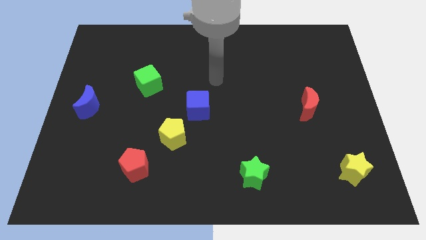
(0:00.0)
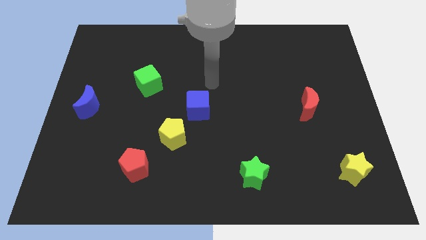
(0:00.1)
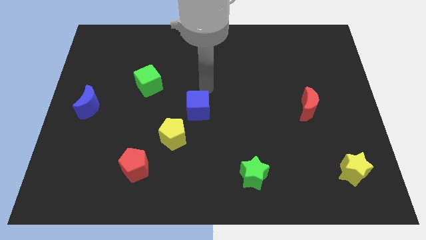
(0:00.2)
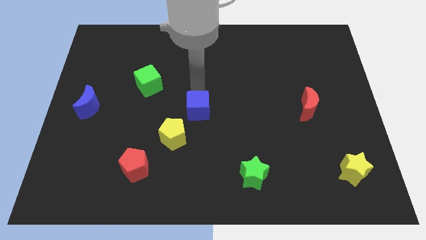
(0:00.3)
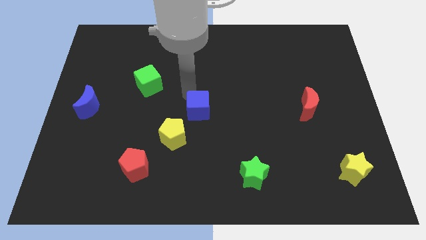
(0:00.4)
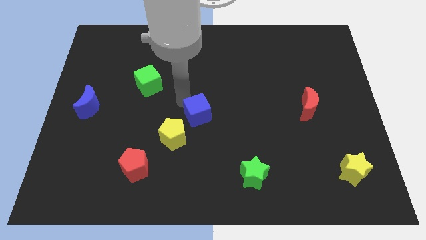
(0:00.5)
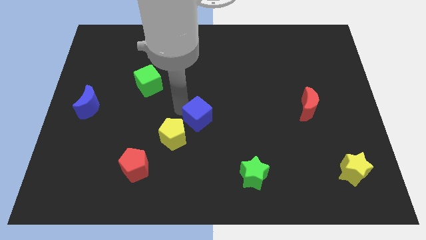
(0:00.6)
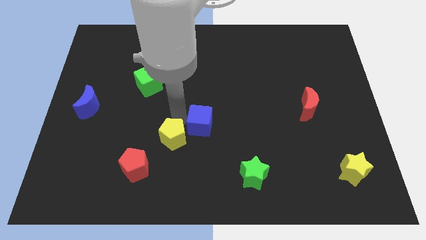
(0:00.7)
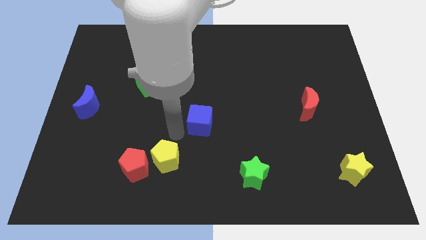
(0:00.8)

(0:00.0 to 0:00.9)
move the blue cube away from the yellow pentagon

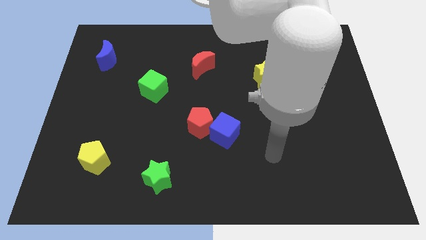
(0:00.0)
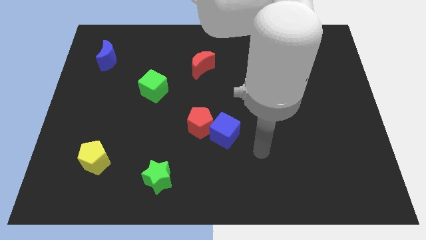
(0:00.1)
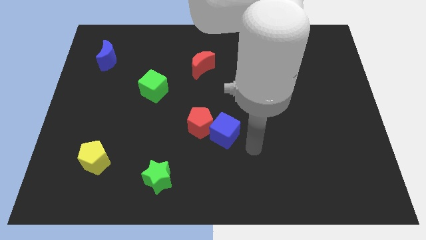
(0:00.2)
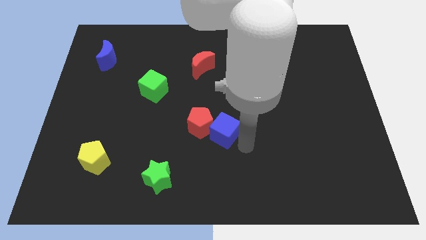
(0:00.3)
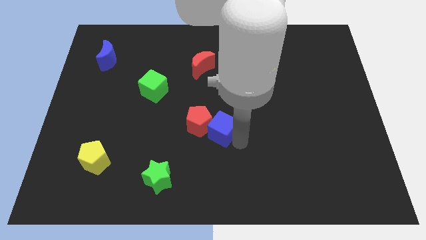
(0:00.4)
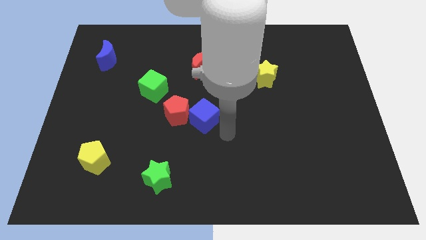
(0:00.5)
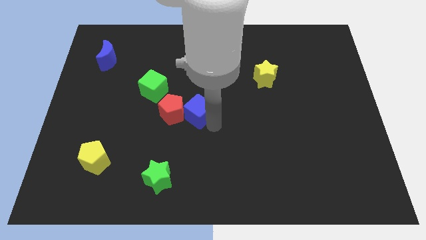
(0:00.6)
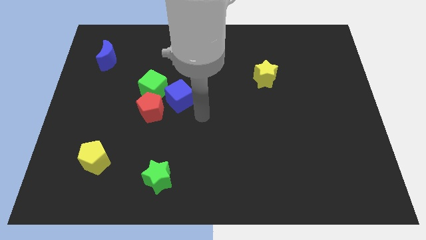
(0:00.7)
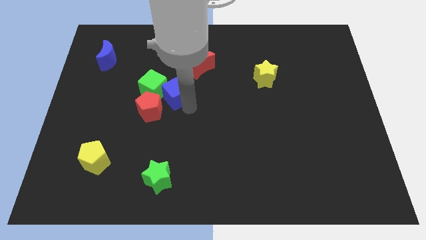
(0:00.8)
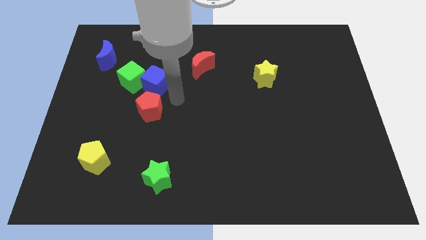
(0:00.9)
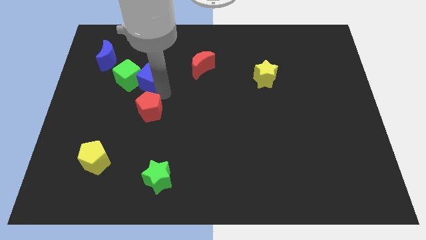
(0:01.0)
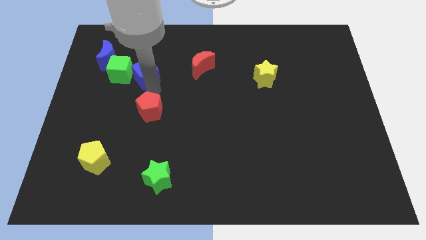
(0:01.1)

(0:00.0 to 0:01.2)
separate the red pentagon from the blue cube

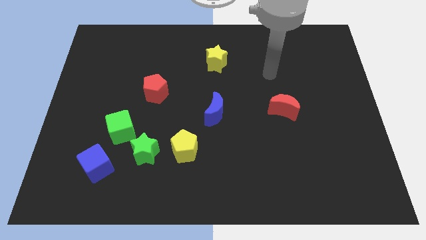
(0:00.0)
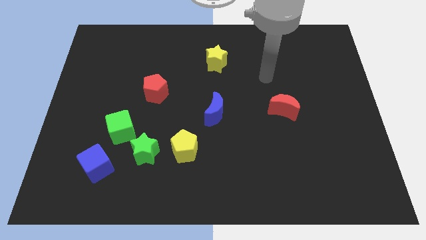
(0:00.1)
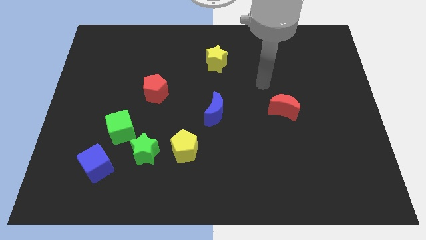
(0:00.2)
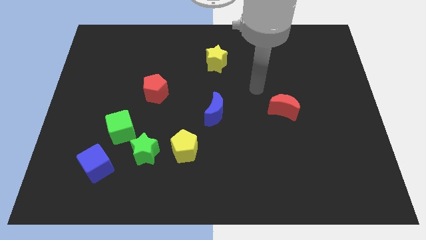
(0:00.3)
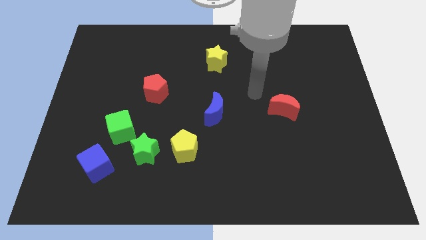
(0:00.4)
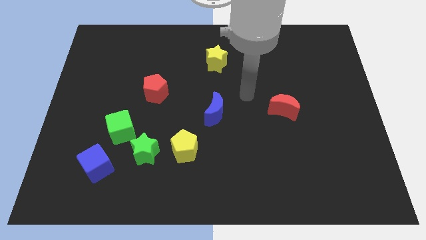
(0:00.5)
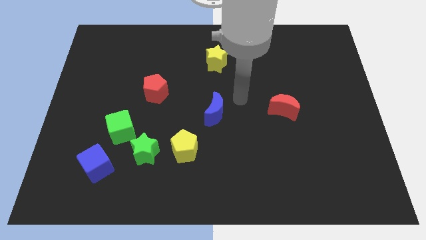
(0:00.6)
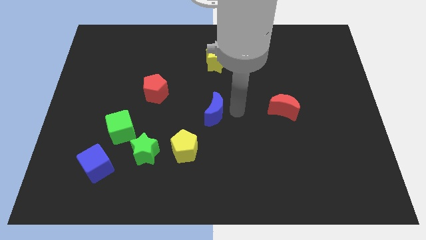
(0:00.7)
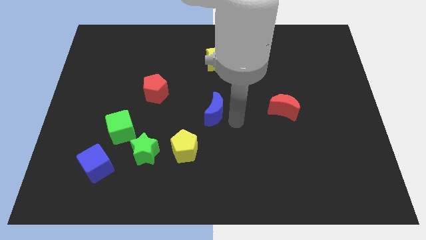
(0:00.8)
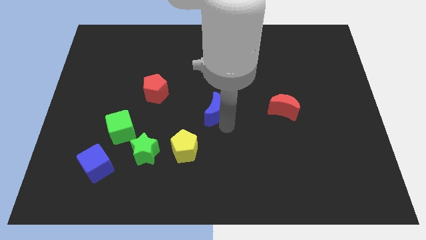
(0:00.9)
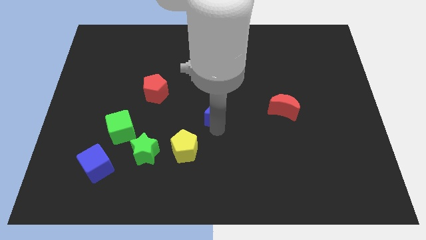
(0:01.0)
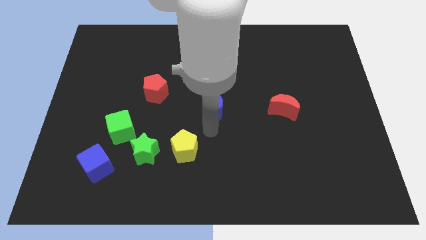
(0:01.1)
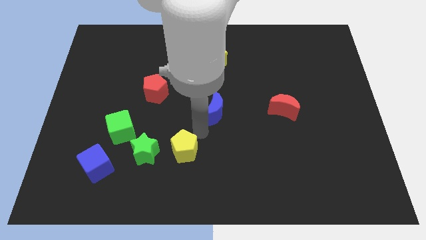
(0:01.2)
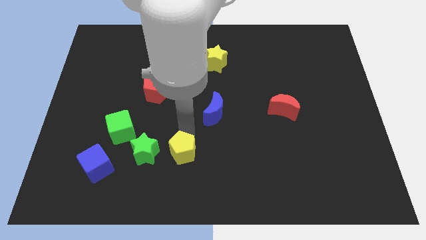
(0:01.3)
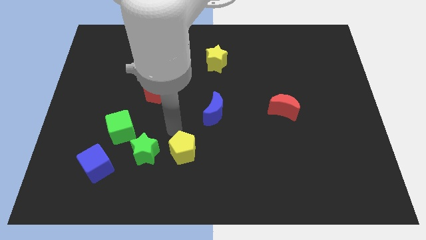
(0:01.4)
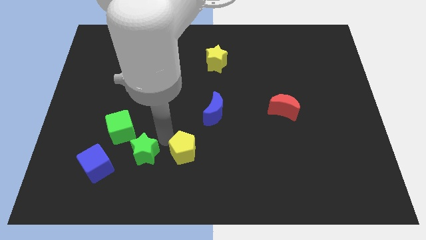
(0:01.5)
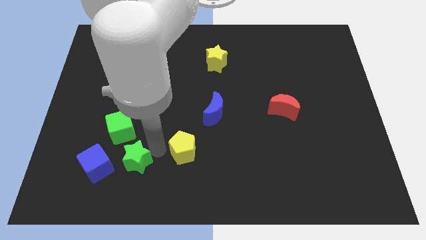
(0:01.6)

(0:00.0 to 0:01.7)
pull the yellow pentagon apart from the green star

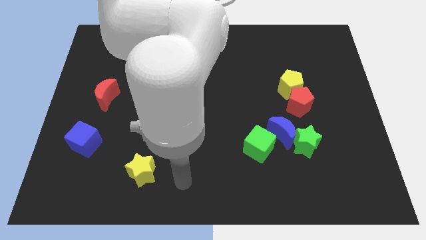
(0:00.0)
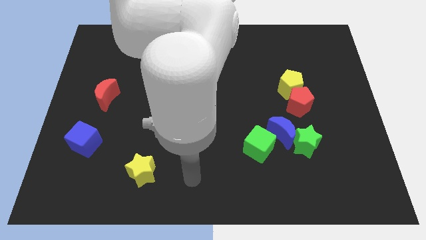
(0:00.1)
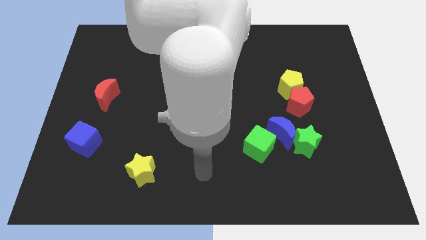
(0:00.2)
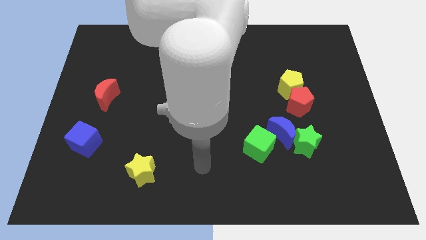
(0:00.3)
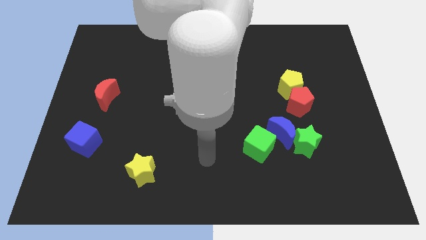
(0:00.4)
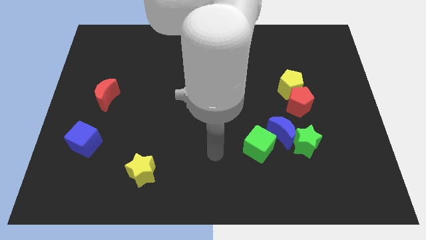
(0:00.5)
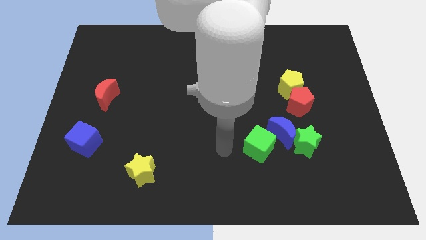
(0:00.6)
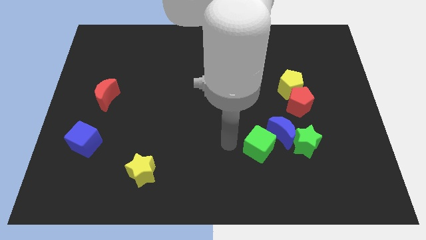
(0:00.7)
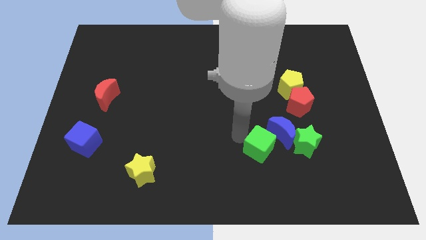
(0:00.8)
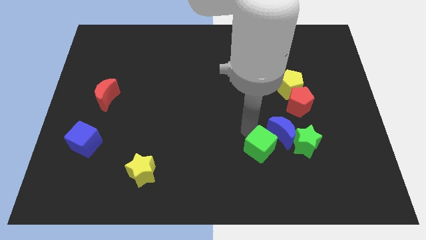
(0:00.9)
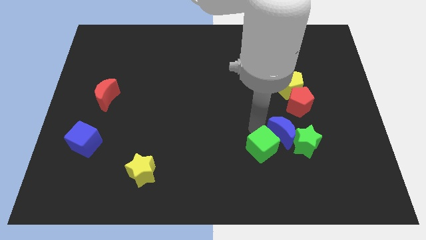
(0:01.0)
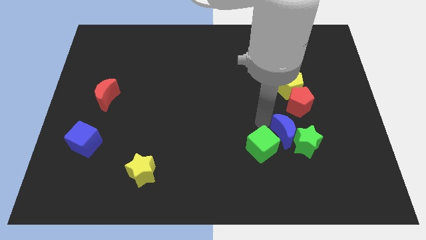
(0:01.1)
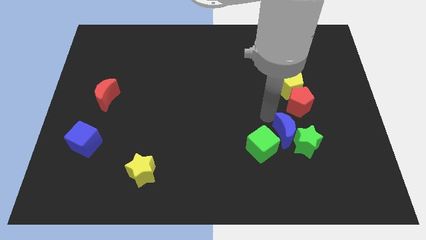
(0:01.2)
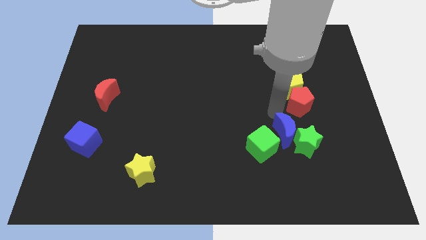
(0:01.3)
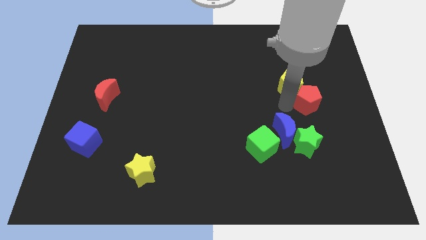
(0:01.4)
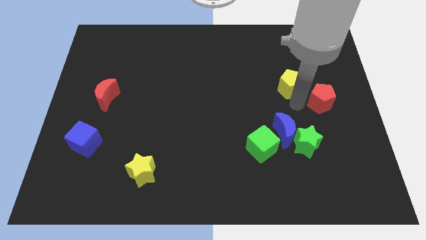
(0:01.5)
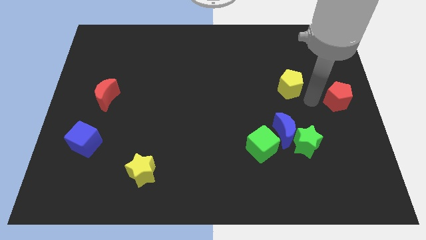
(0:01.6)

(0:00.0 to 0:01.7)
pull the yellow pentagon apart from the red pentagon

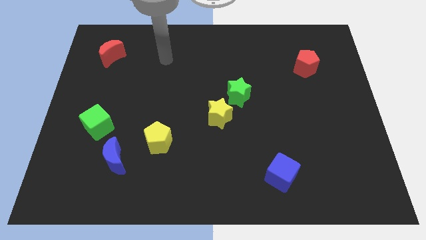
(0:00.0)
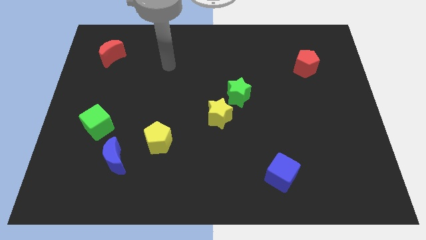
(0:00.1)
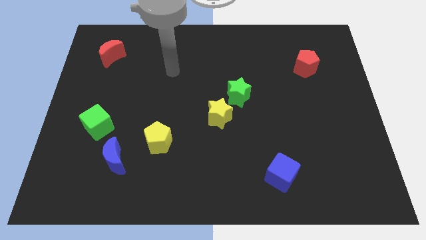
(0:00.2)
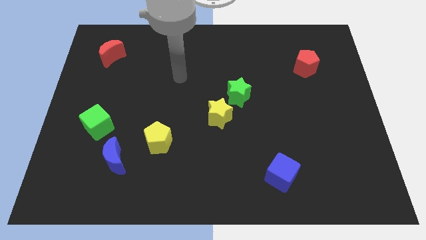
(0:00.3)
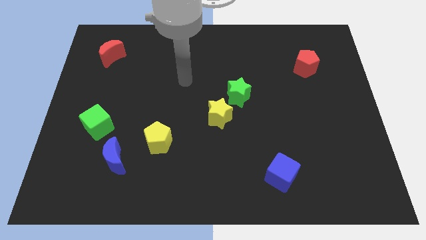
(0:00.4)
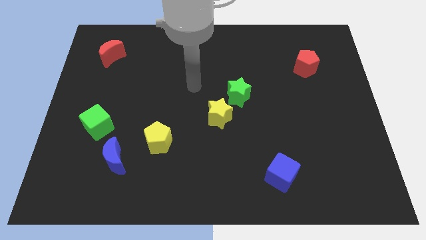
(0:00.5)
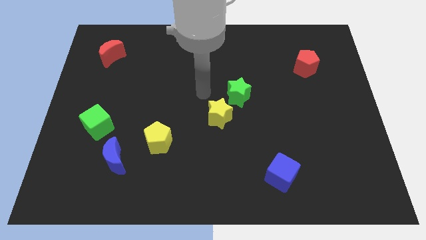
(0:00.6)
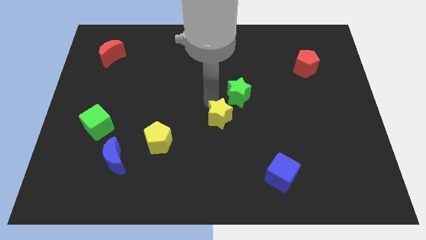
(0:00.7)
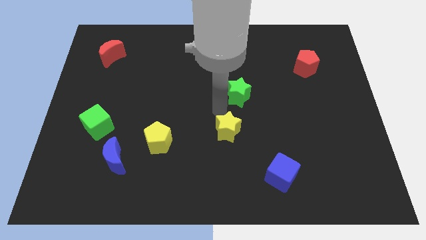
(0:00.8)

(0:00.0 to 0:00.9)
separate the green star from the yellow star

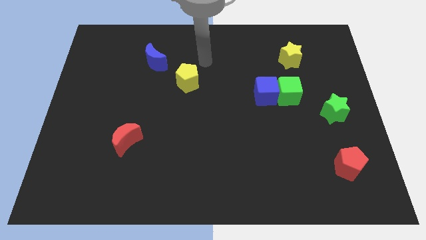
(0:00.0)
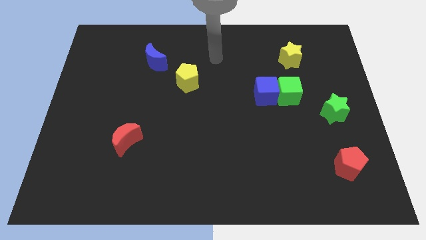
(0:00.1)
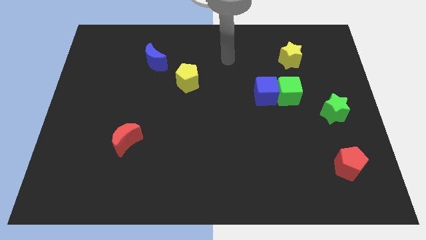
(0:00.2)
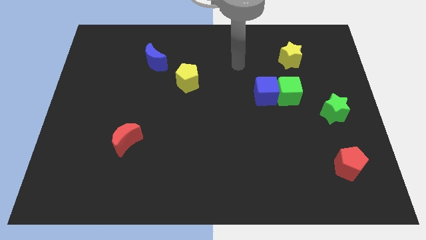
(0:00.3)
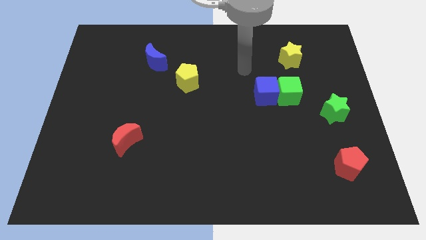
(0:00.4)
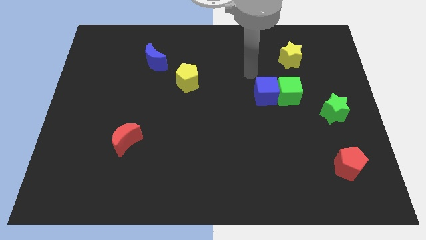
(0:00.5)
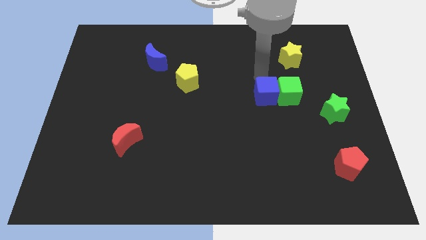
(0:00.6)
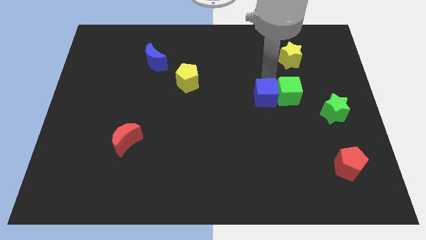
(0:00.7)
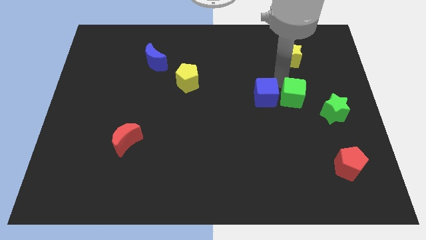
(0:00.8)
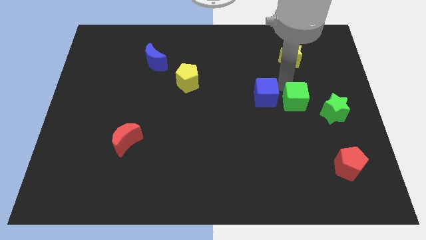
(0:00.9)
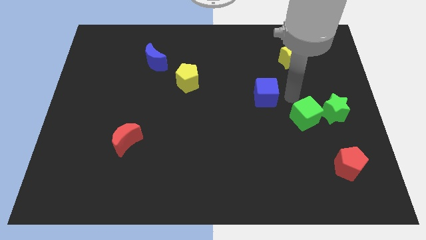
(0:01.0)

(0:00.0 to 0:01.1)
separate the blue cube from the green cube

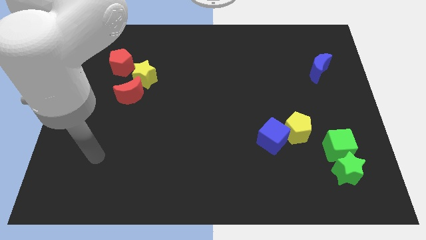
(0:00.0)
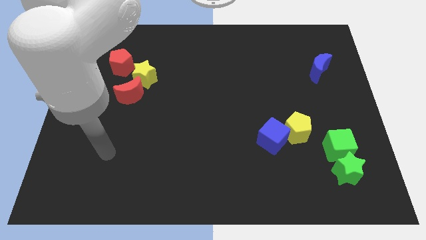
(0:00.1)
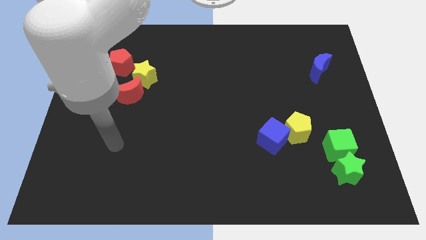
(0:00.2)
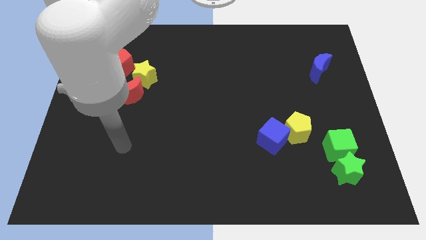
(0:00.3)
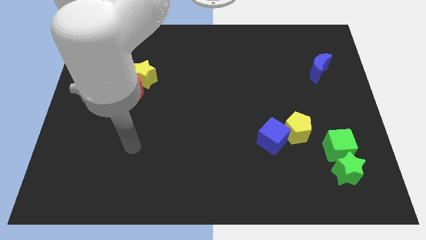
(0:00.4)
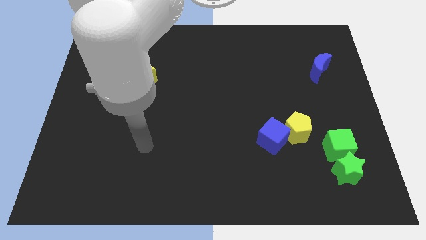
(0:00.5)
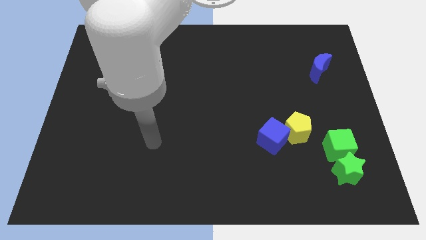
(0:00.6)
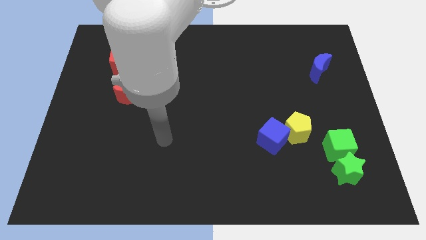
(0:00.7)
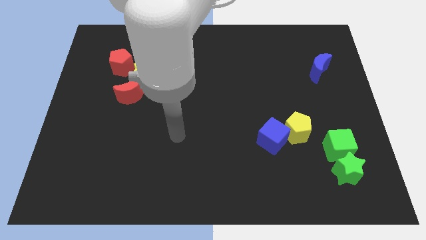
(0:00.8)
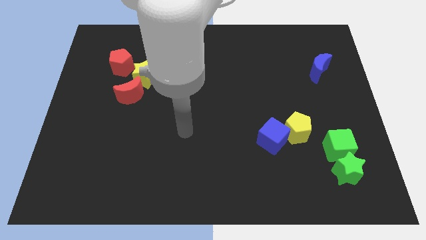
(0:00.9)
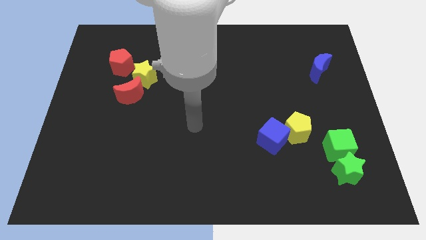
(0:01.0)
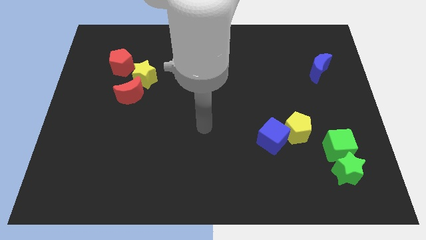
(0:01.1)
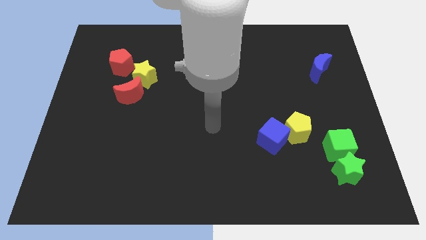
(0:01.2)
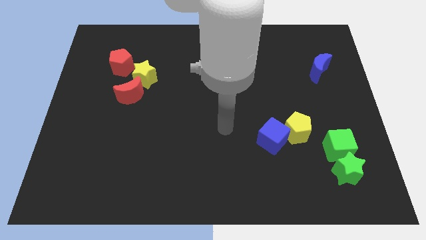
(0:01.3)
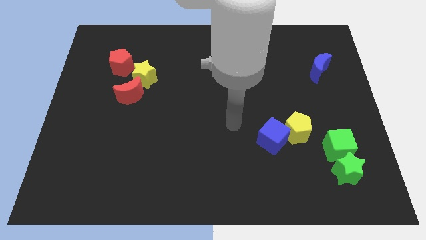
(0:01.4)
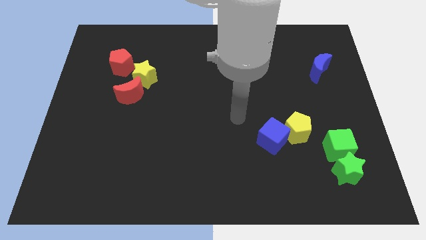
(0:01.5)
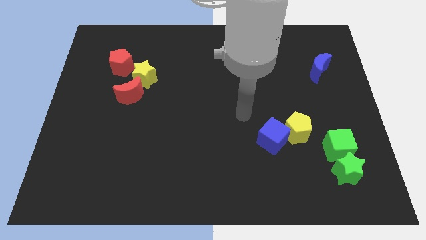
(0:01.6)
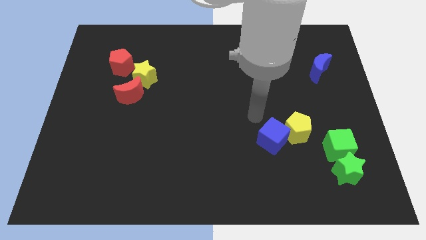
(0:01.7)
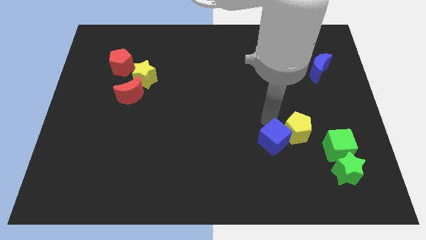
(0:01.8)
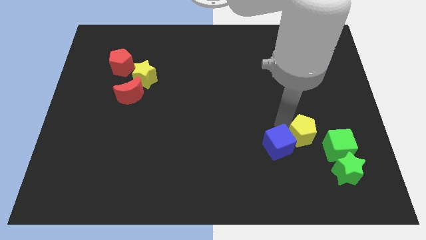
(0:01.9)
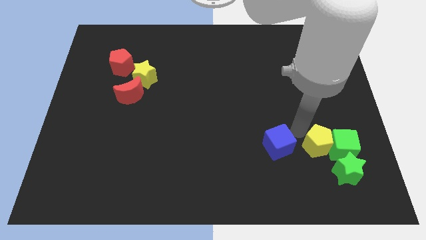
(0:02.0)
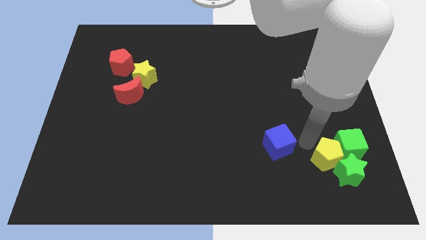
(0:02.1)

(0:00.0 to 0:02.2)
separate the blue cube from the yellow pentagon
